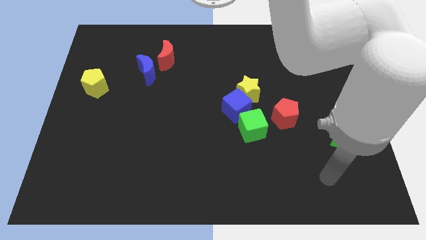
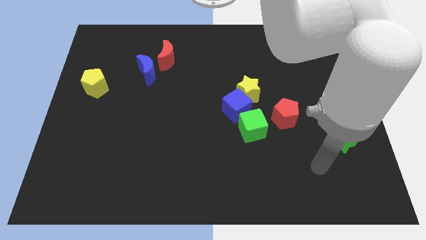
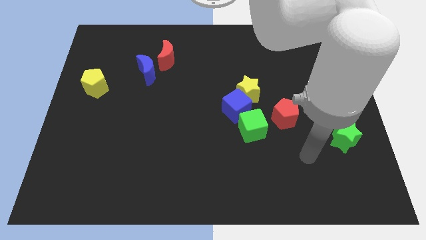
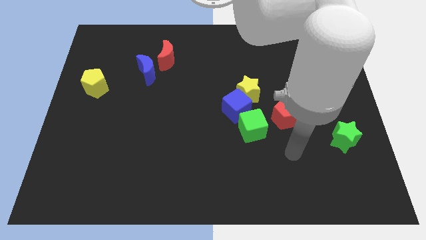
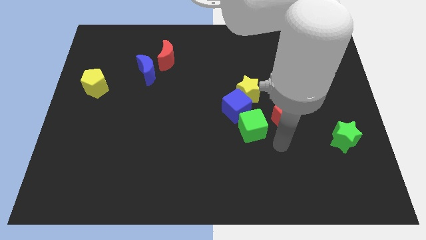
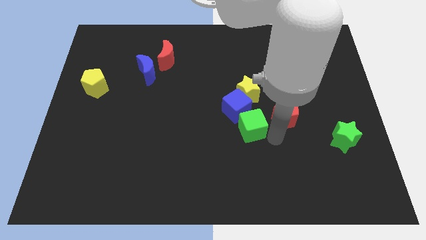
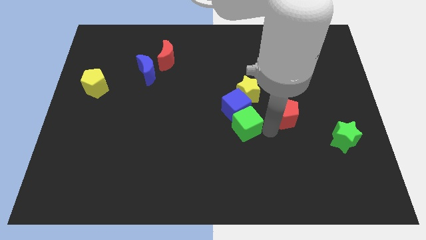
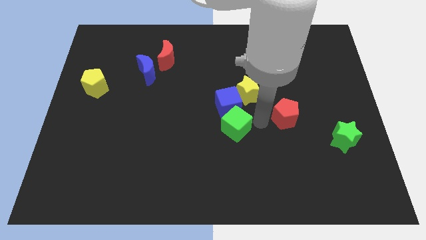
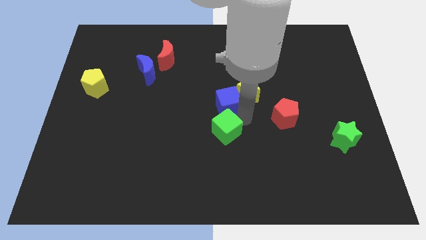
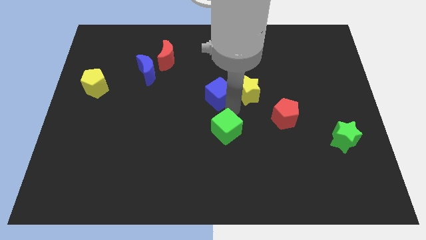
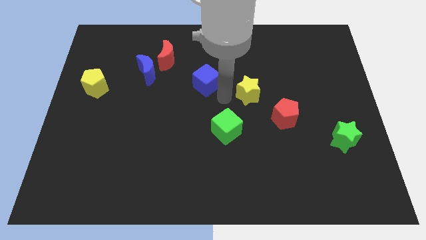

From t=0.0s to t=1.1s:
move the yellow star away from the blue cube

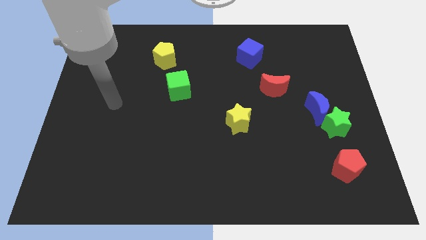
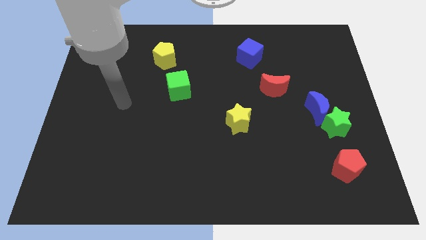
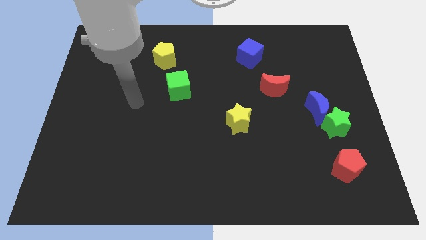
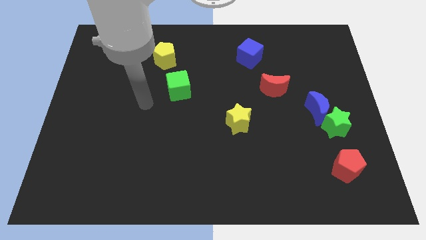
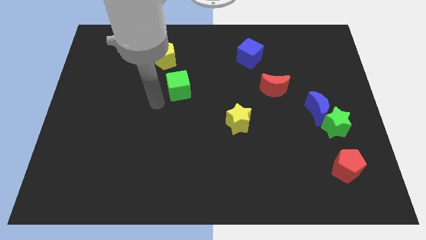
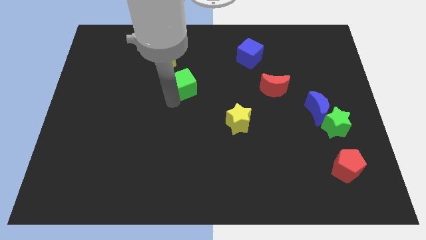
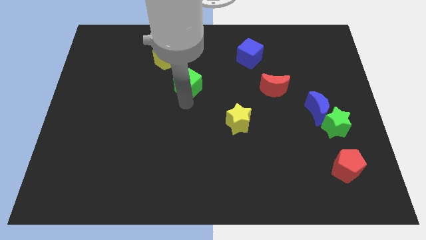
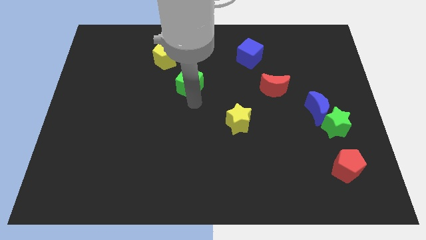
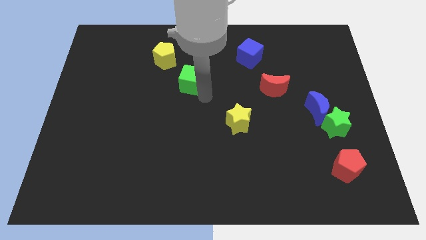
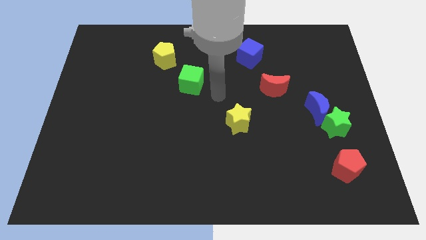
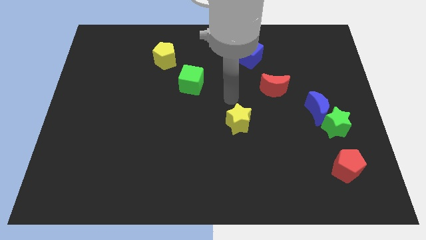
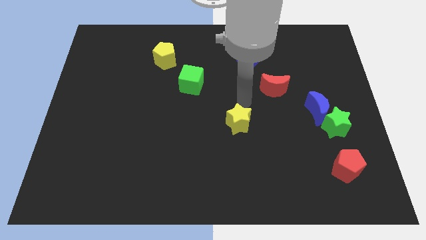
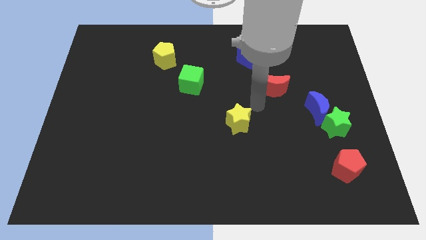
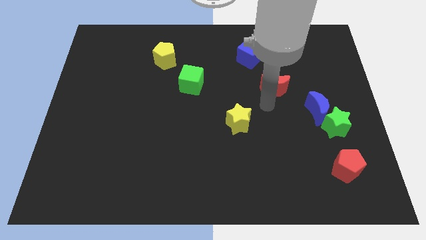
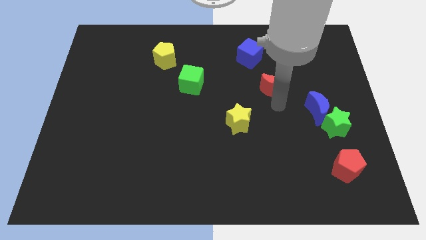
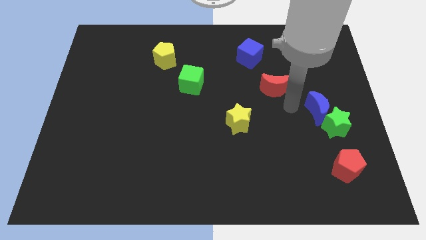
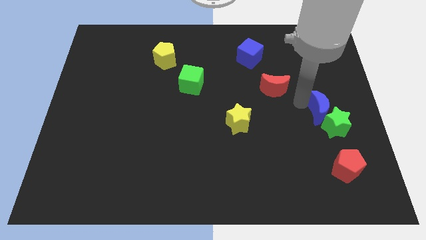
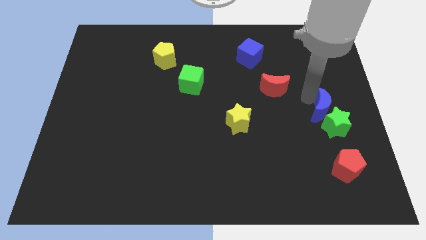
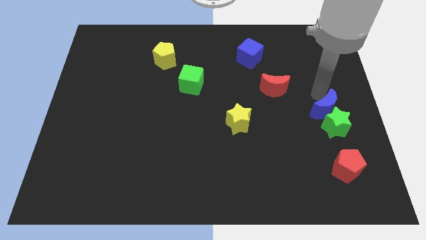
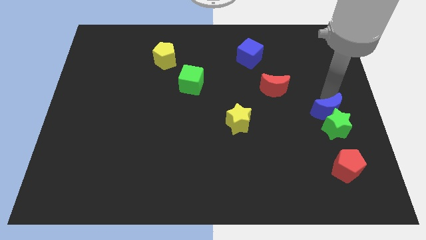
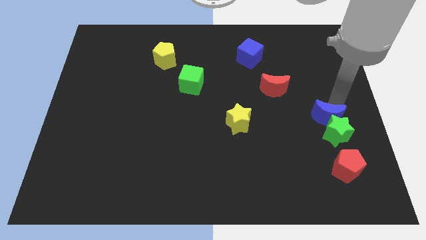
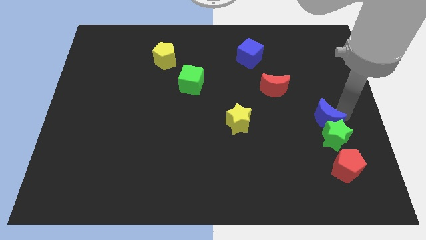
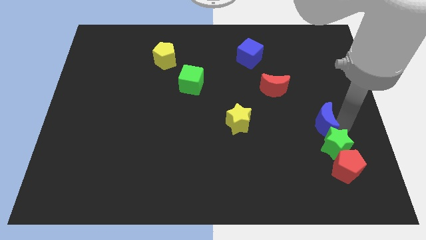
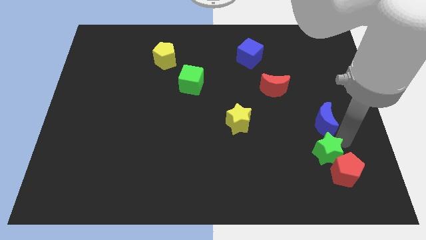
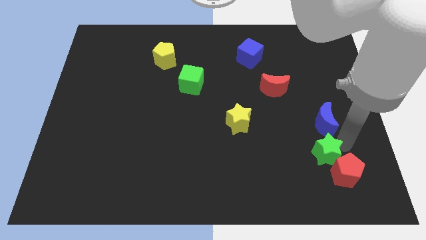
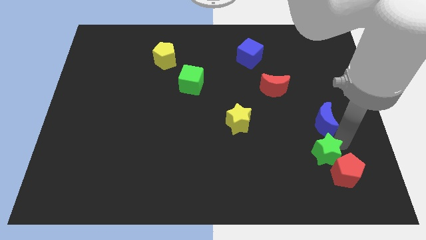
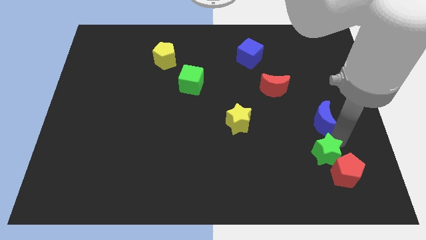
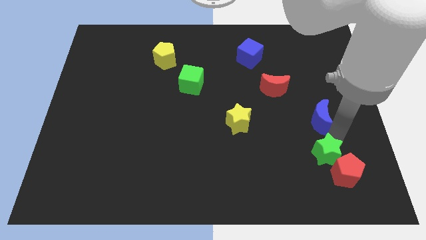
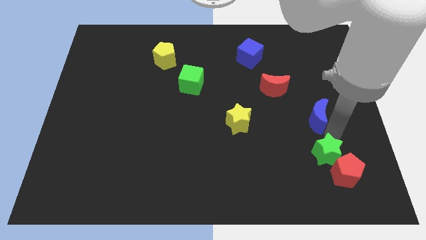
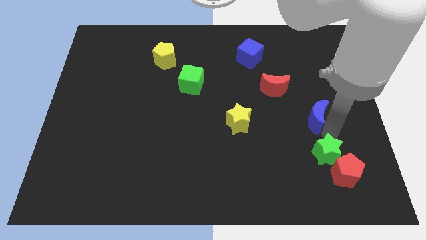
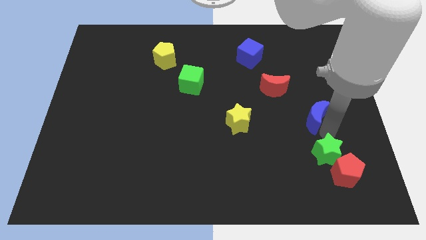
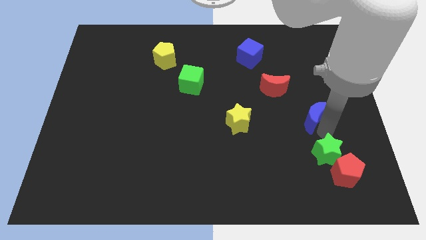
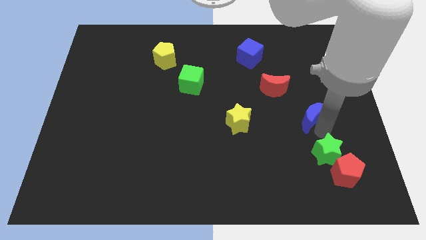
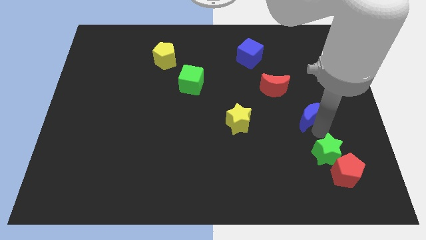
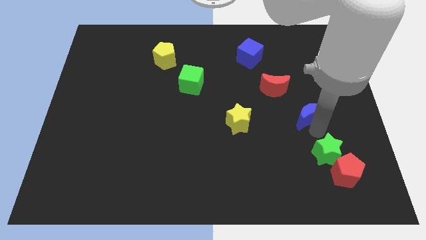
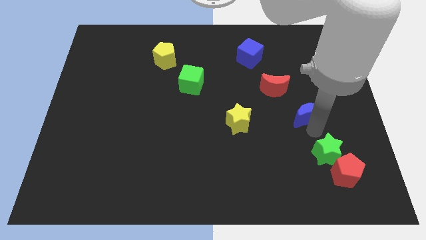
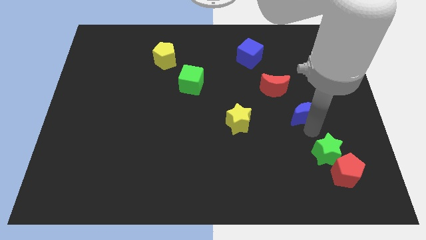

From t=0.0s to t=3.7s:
pull the blue moon apart from the green star

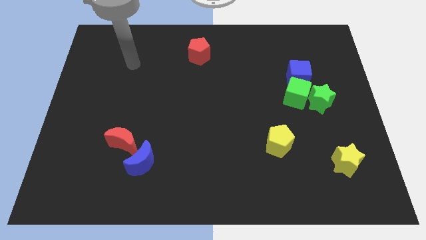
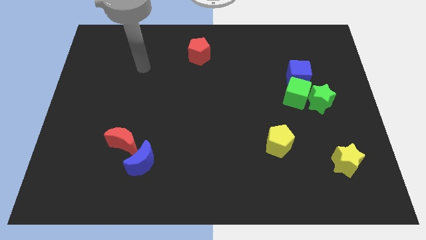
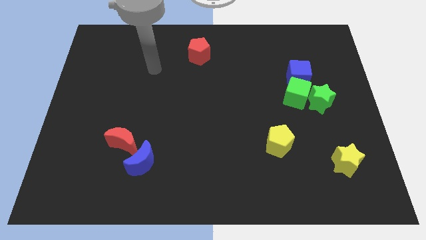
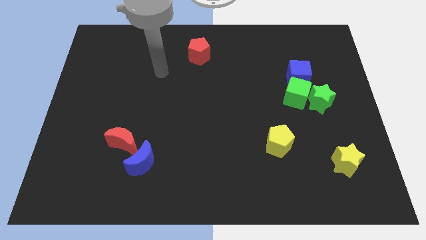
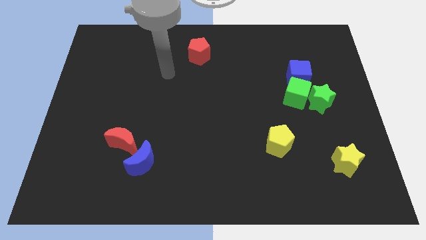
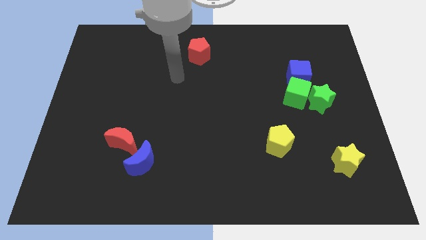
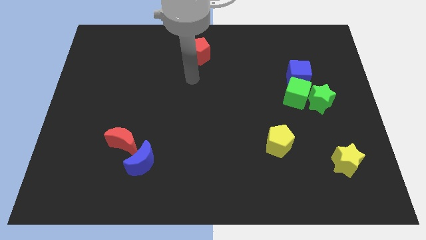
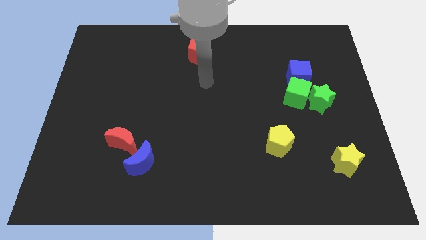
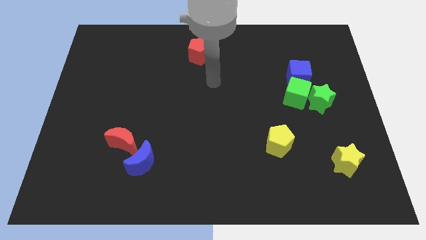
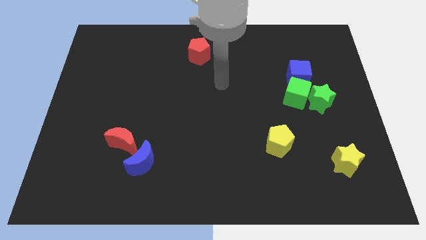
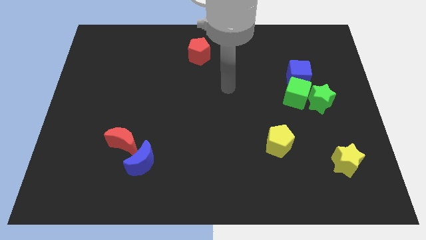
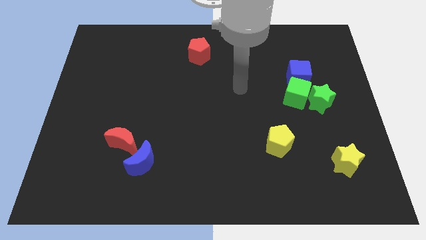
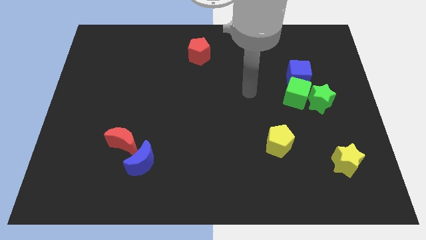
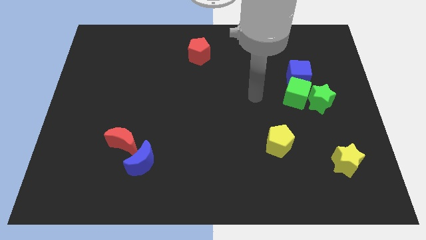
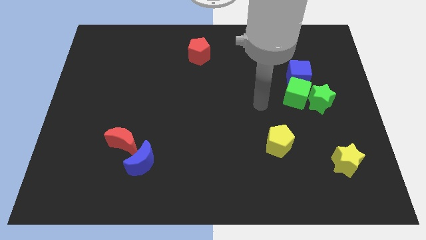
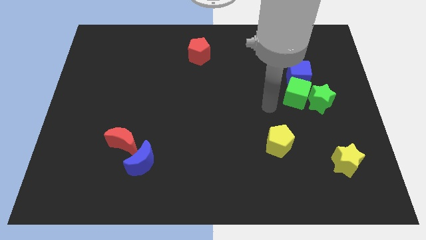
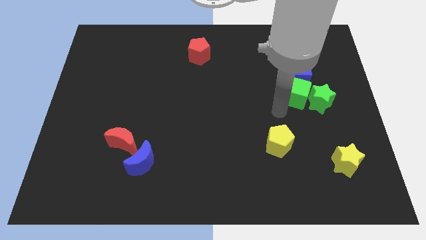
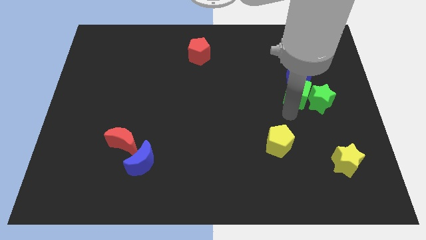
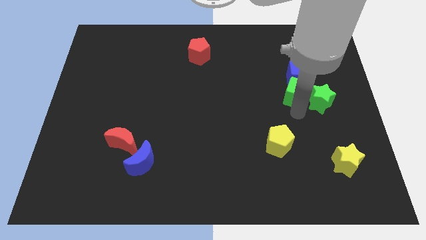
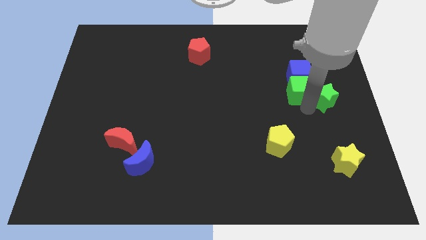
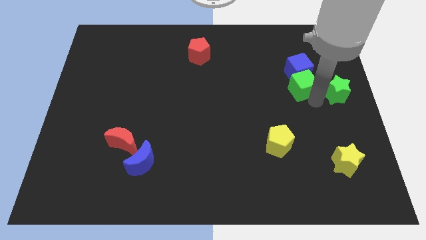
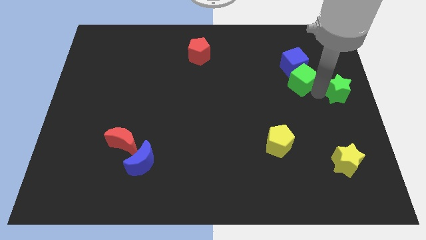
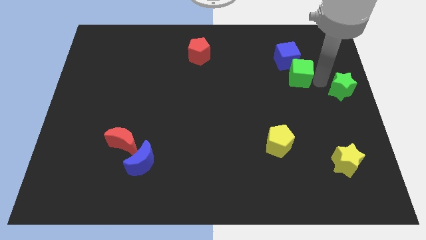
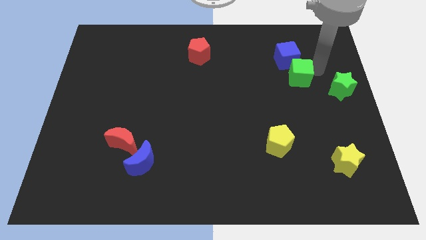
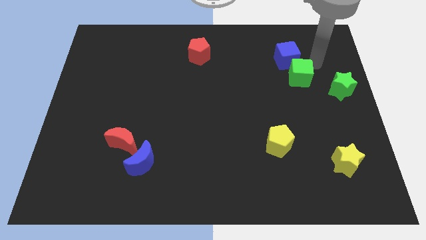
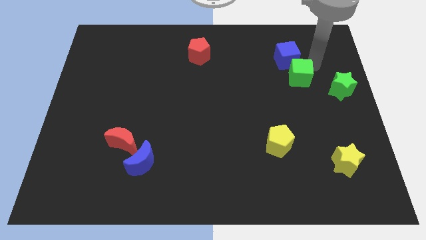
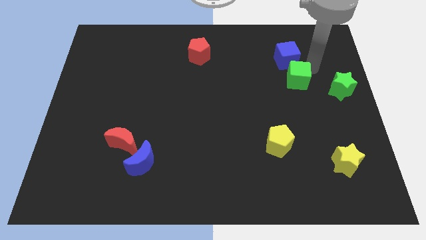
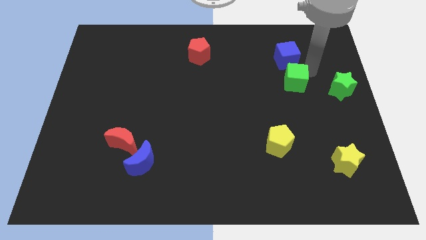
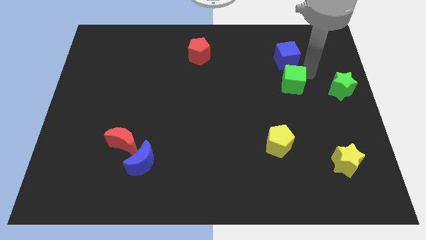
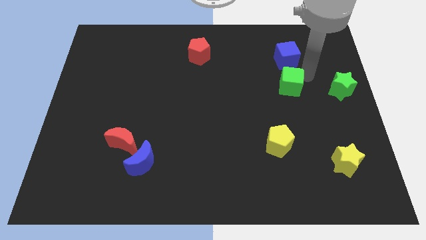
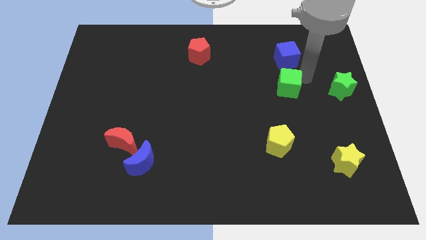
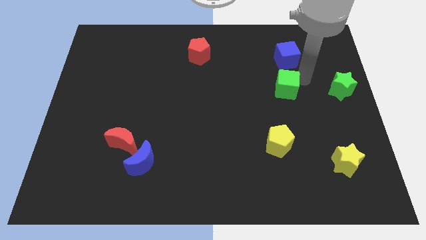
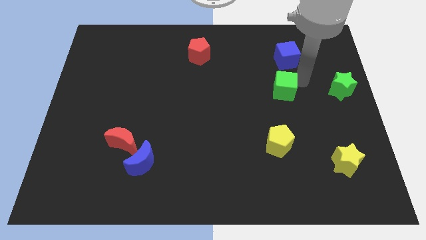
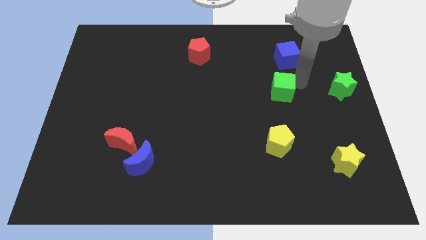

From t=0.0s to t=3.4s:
pull the green cube apart from the green star and blue cube

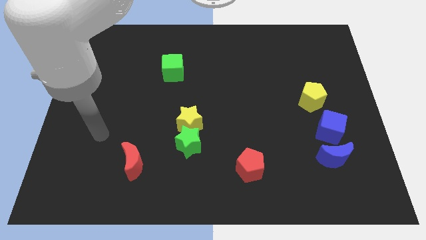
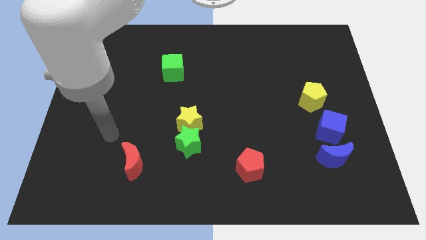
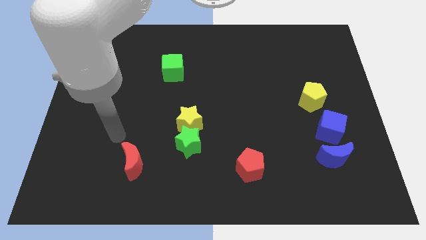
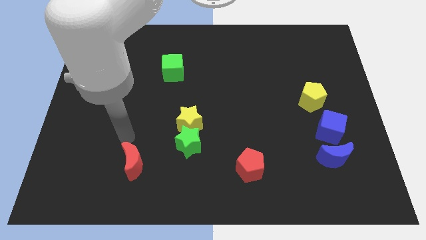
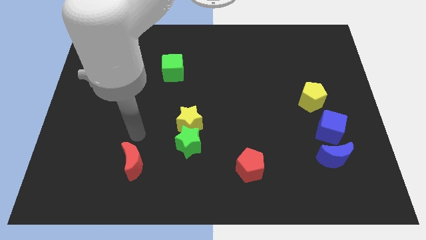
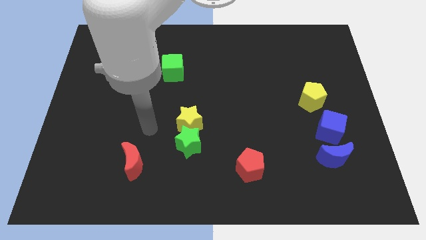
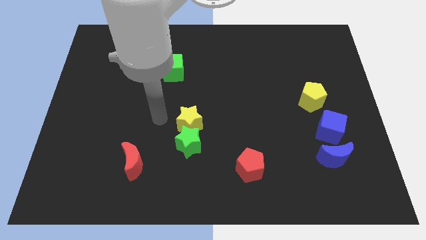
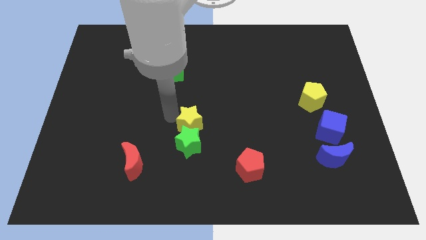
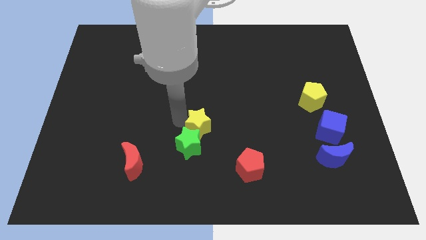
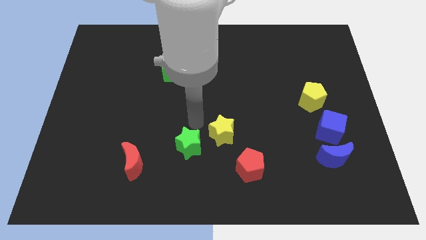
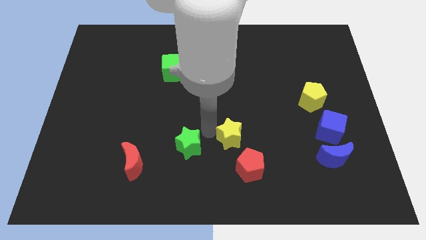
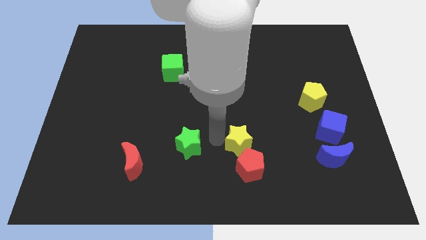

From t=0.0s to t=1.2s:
pull the green star apart from the yellow star
